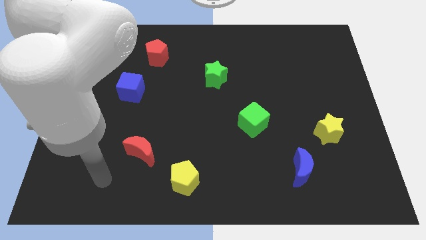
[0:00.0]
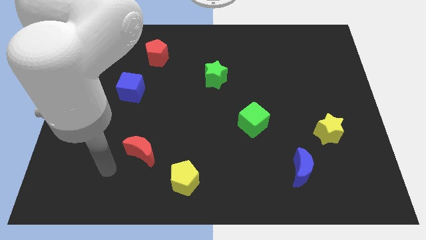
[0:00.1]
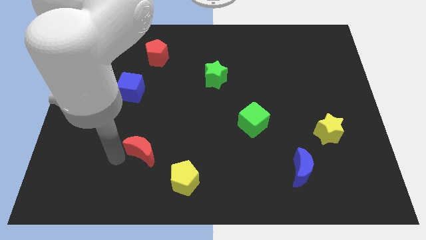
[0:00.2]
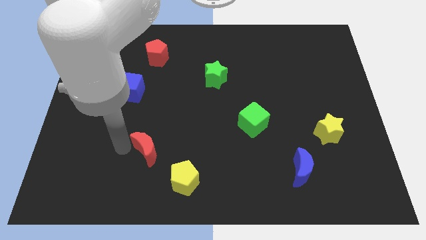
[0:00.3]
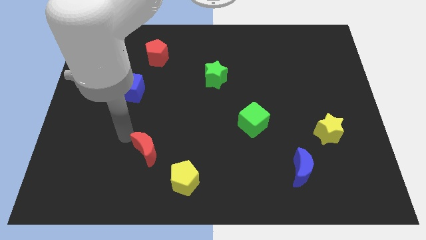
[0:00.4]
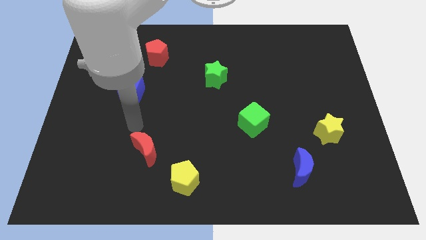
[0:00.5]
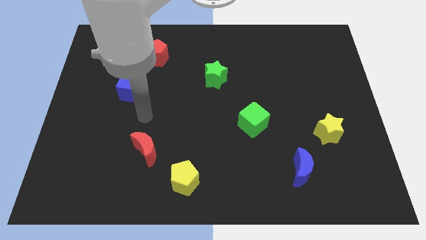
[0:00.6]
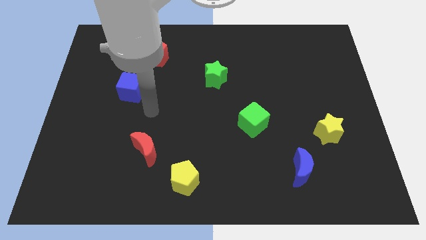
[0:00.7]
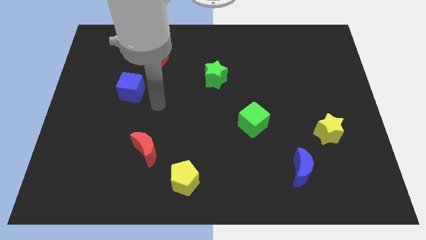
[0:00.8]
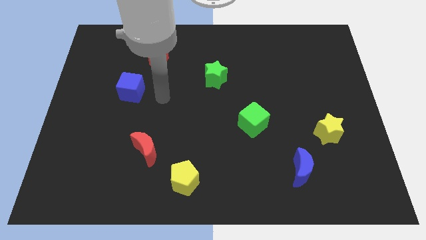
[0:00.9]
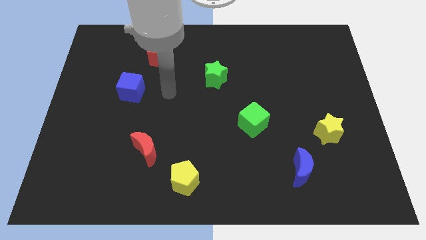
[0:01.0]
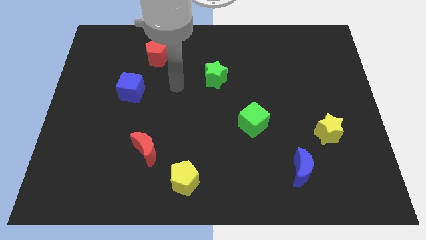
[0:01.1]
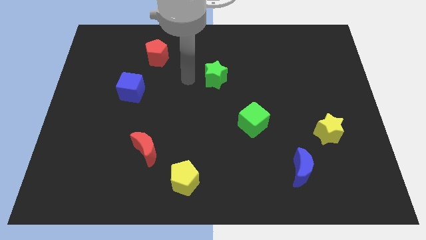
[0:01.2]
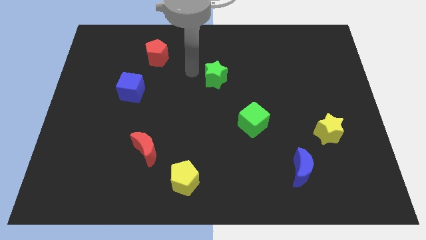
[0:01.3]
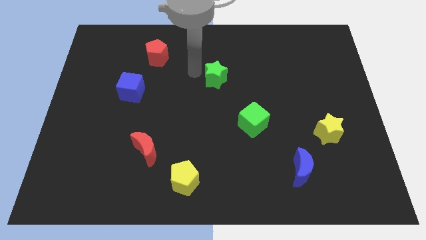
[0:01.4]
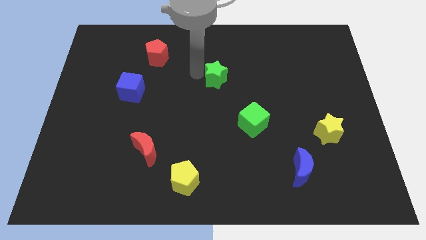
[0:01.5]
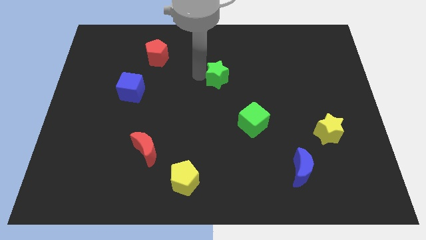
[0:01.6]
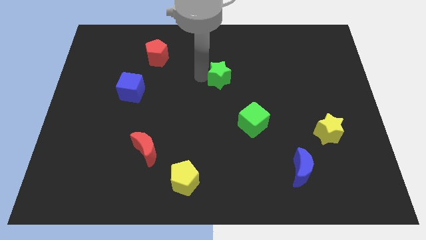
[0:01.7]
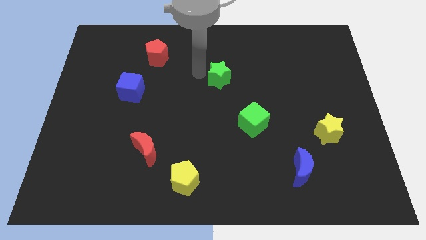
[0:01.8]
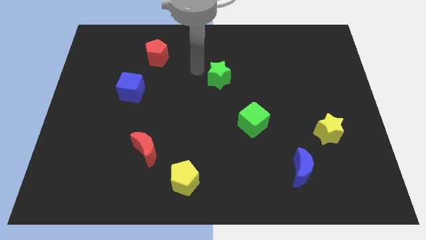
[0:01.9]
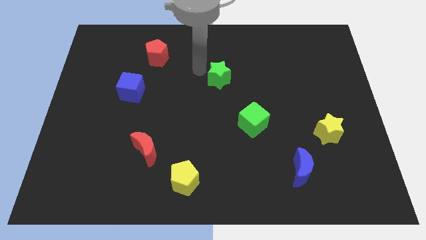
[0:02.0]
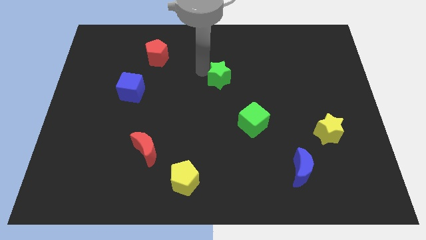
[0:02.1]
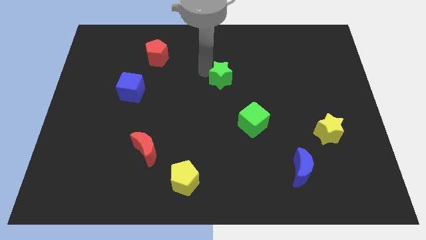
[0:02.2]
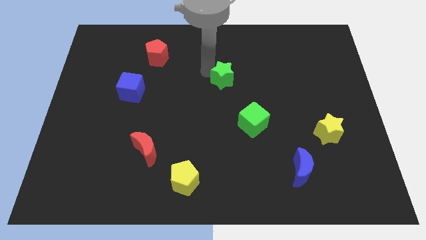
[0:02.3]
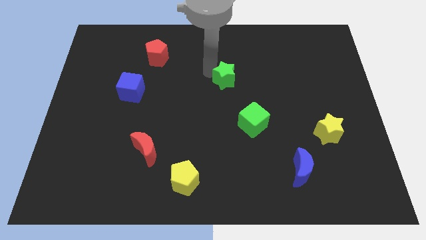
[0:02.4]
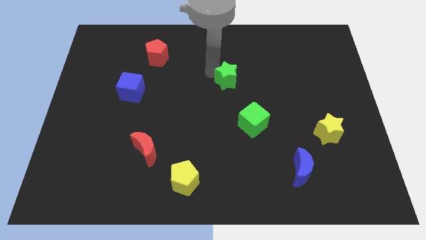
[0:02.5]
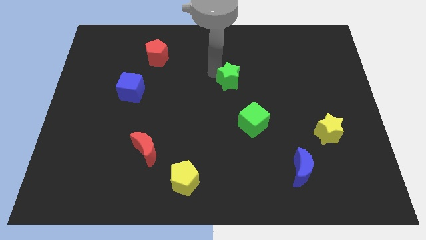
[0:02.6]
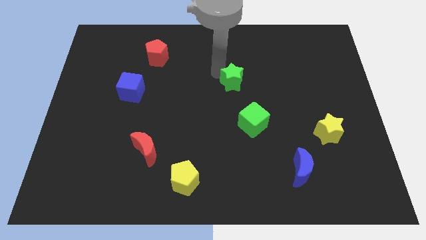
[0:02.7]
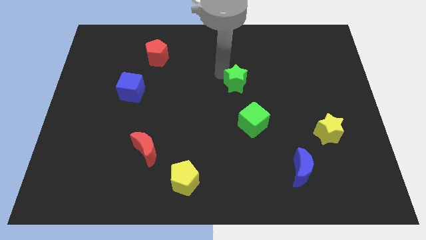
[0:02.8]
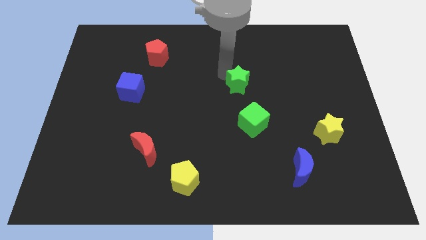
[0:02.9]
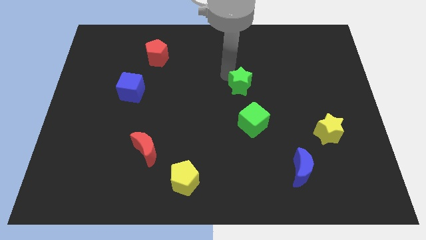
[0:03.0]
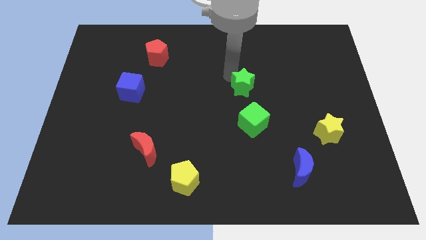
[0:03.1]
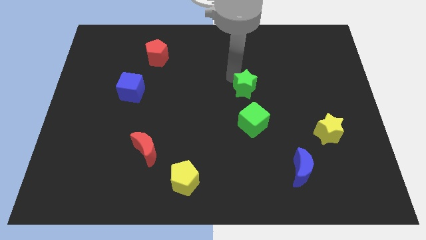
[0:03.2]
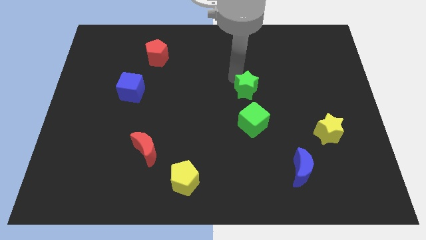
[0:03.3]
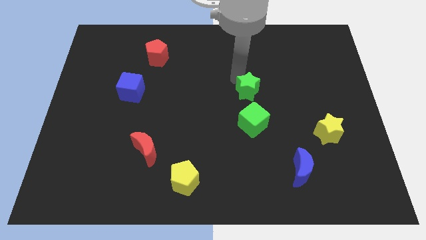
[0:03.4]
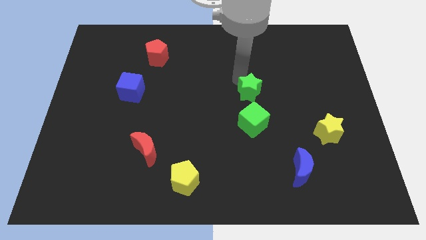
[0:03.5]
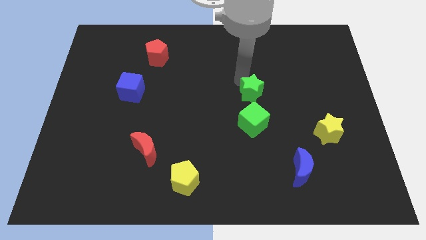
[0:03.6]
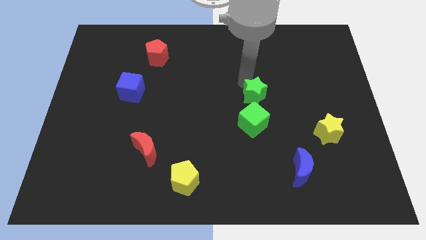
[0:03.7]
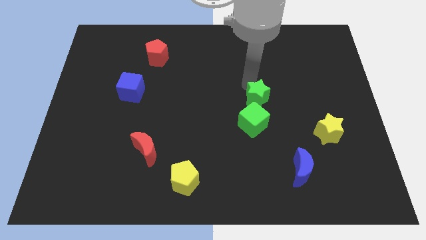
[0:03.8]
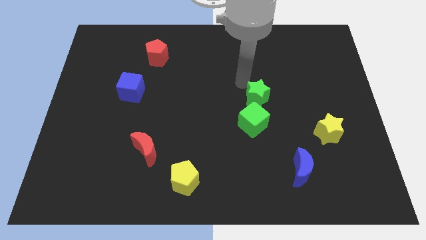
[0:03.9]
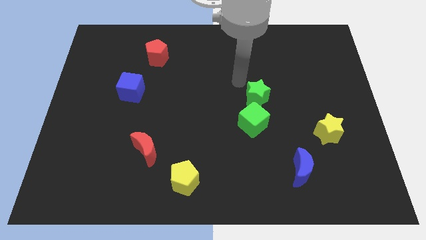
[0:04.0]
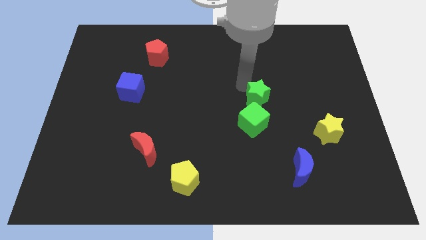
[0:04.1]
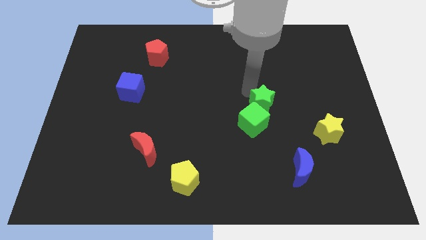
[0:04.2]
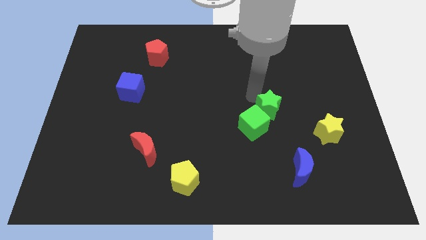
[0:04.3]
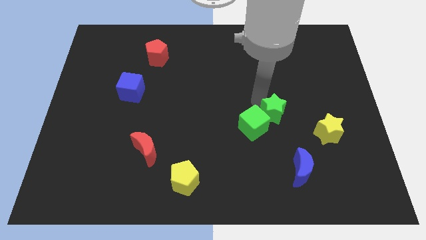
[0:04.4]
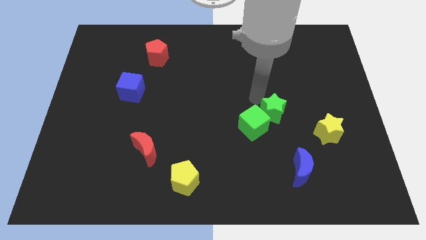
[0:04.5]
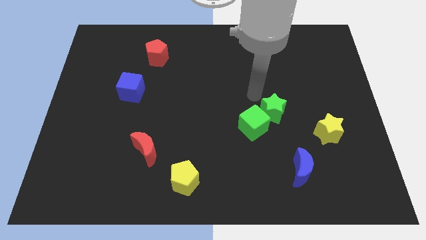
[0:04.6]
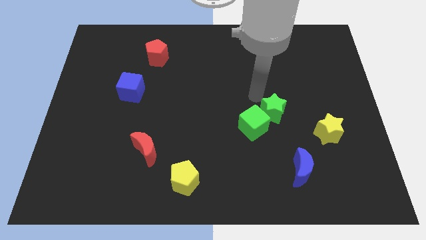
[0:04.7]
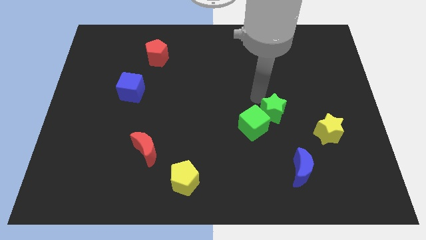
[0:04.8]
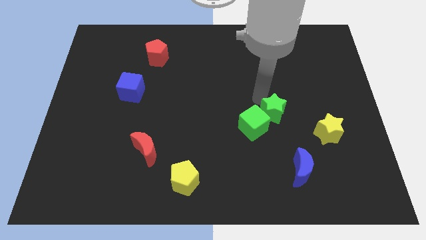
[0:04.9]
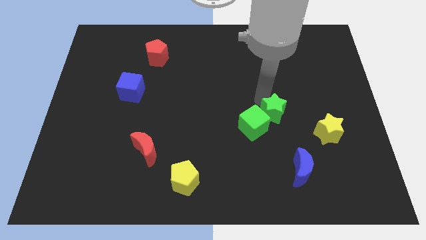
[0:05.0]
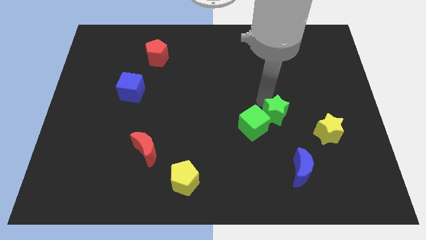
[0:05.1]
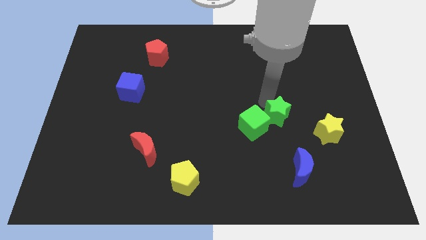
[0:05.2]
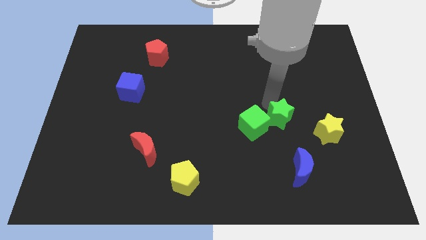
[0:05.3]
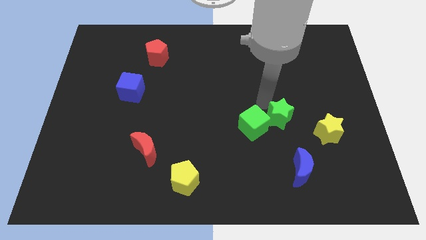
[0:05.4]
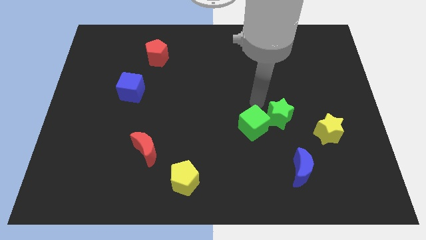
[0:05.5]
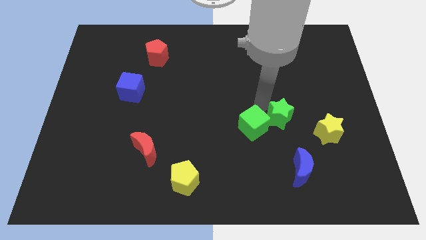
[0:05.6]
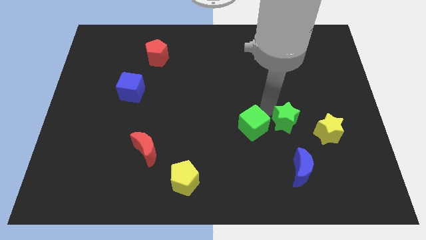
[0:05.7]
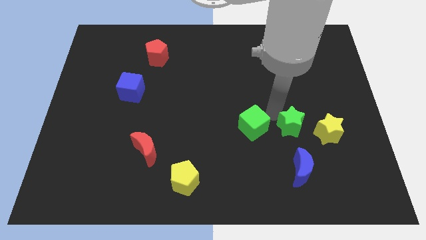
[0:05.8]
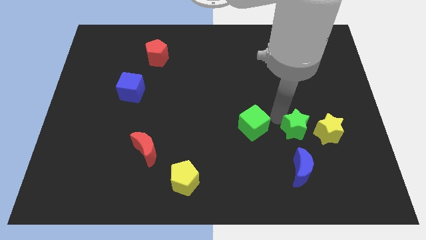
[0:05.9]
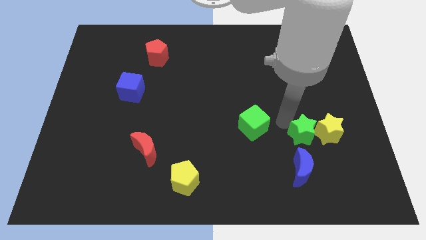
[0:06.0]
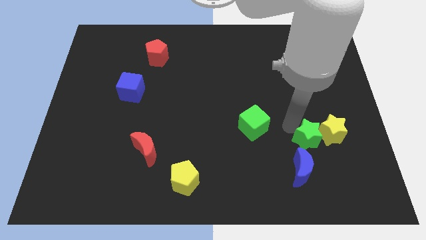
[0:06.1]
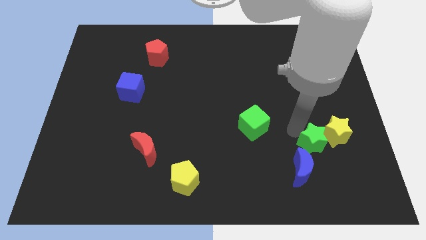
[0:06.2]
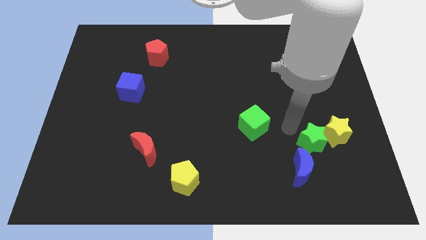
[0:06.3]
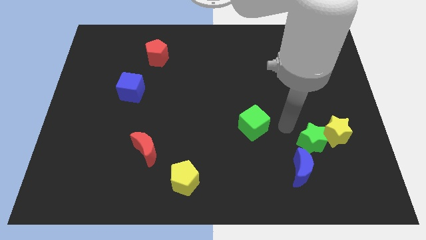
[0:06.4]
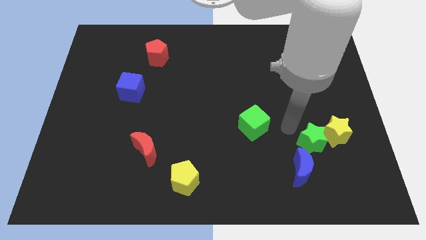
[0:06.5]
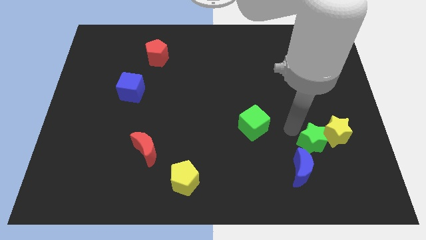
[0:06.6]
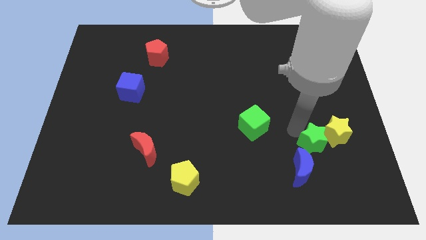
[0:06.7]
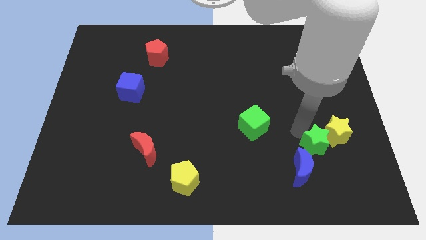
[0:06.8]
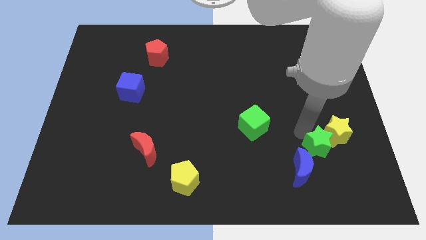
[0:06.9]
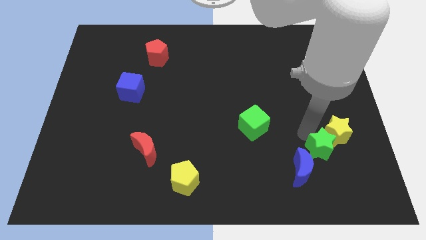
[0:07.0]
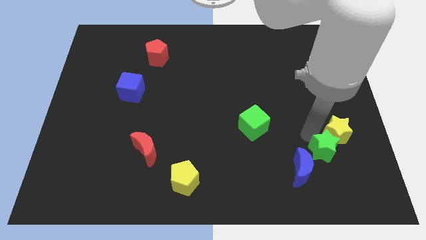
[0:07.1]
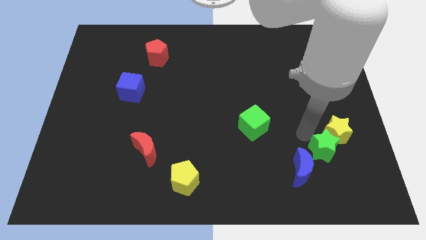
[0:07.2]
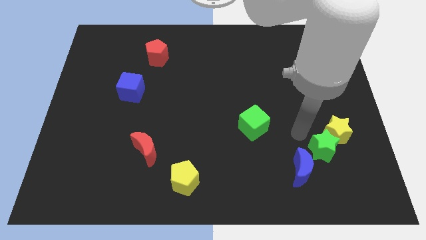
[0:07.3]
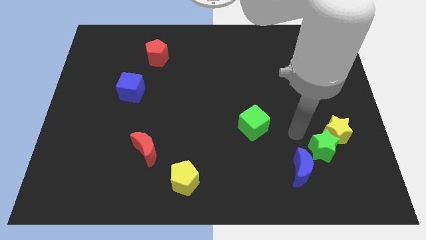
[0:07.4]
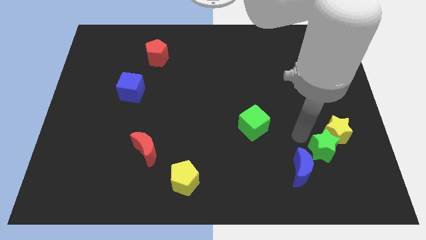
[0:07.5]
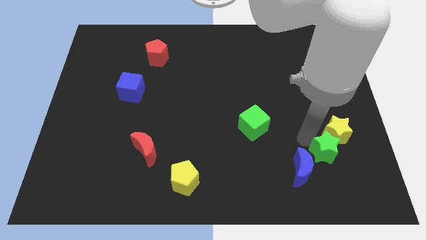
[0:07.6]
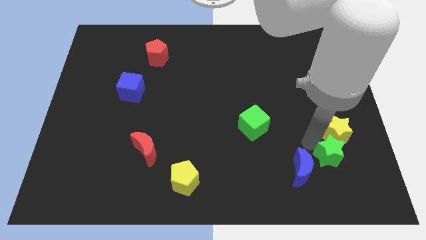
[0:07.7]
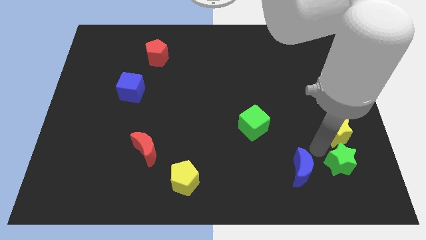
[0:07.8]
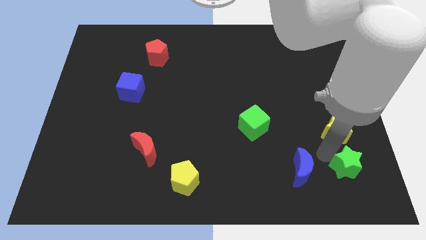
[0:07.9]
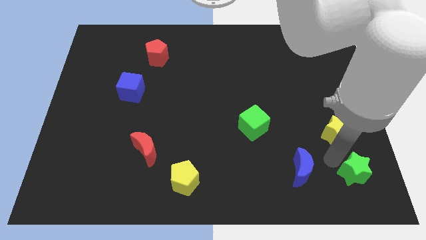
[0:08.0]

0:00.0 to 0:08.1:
put the green star to the lower right corner
